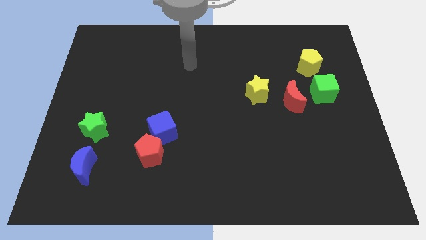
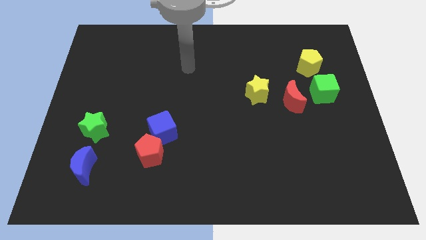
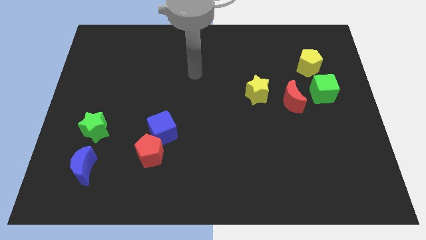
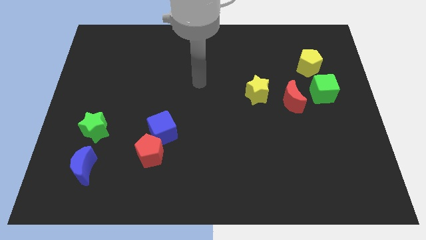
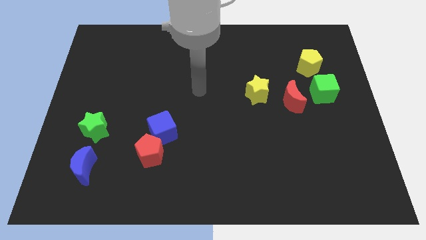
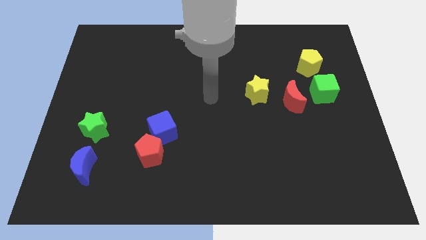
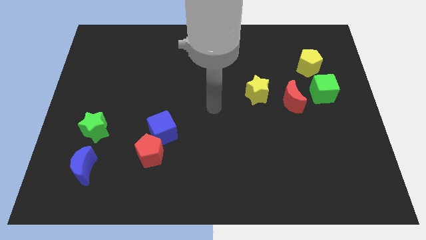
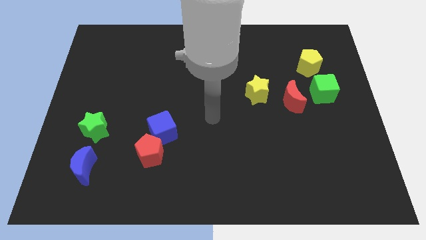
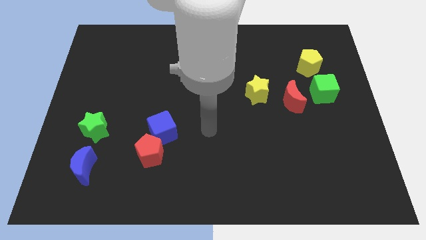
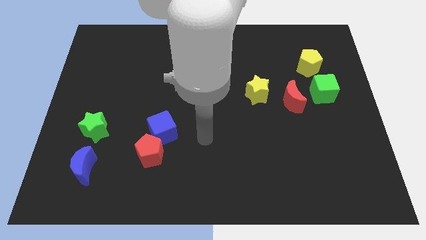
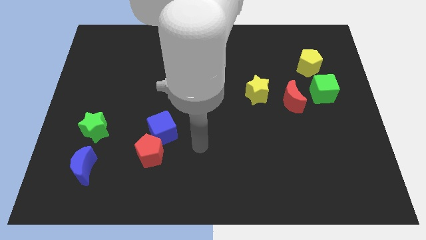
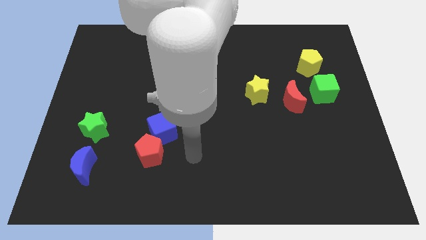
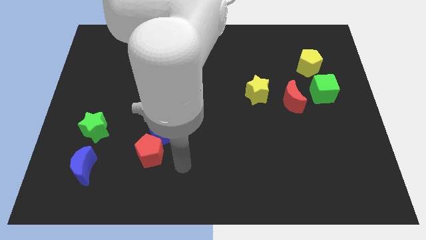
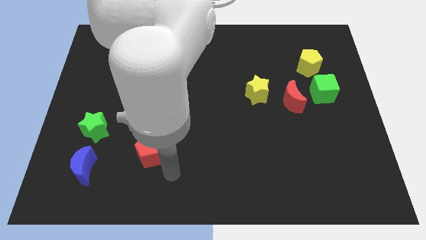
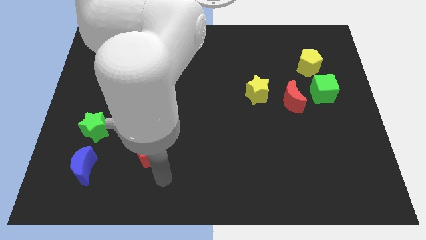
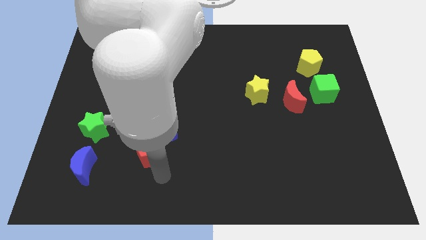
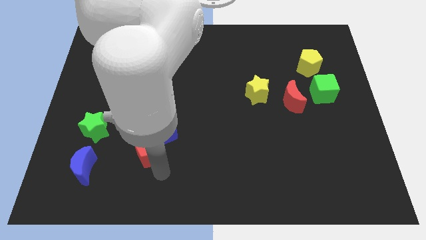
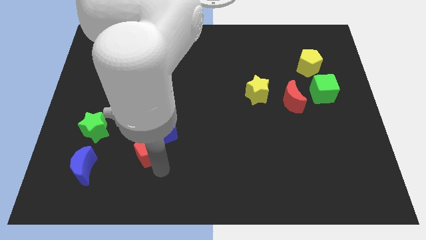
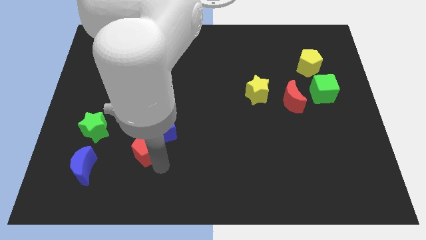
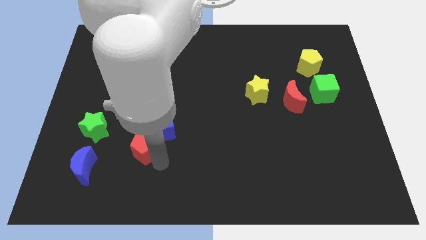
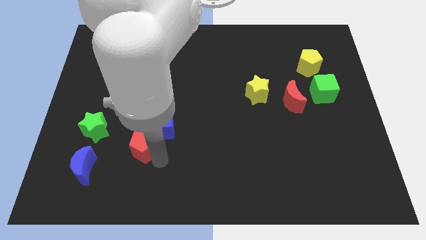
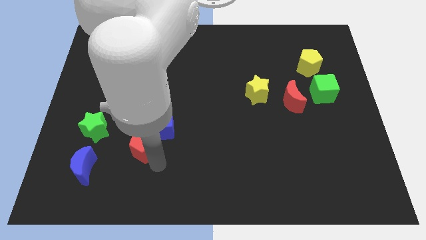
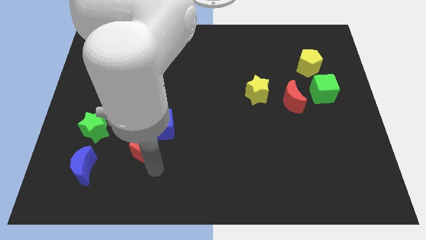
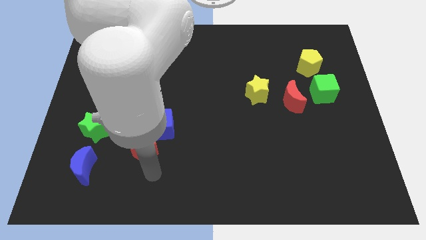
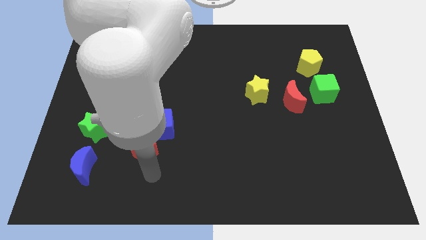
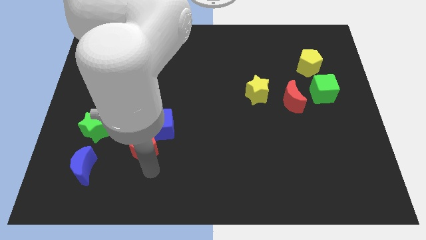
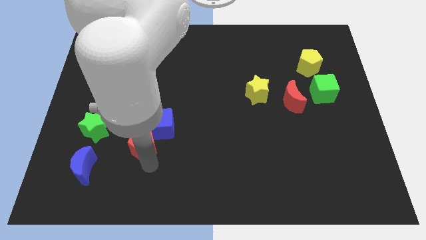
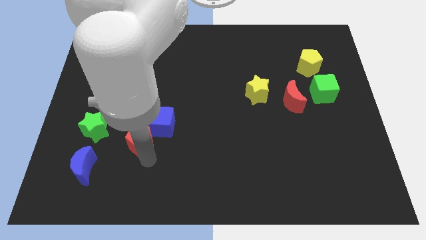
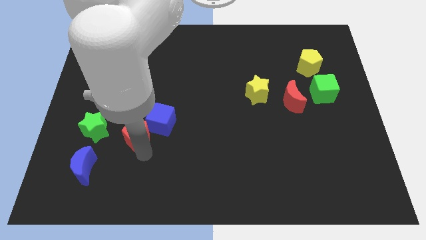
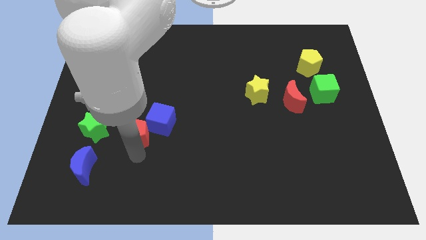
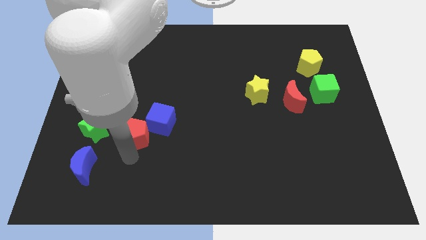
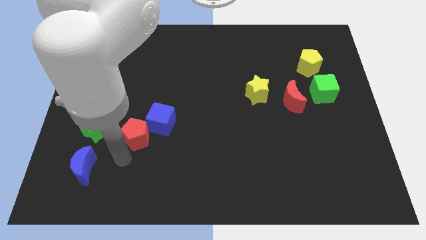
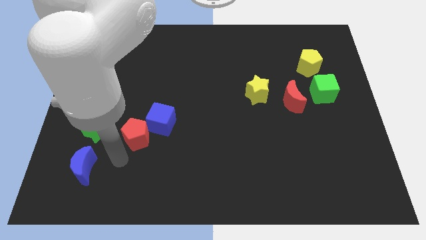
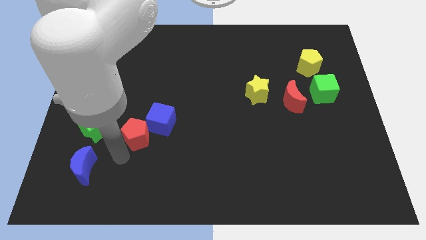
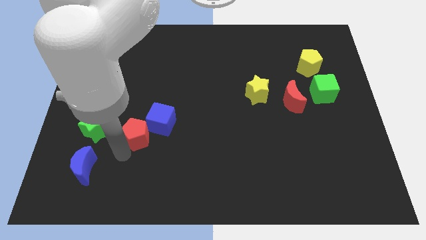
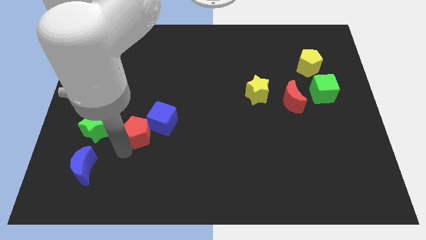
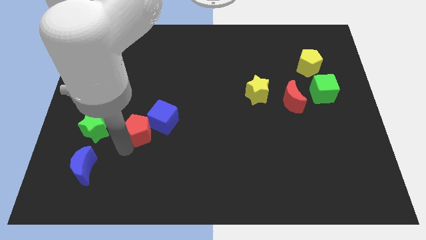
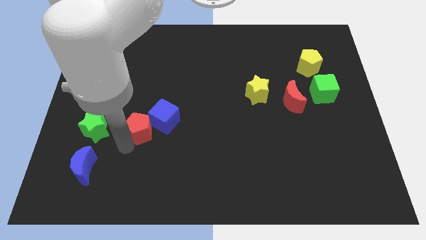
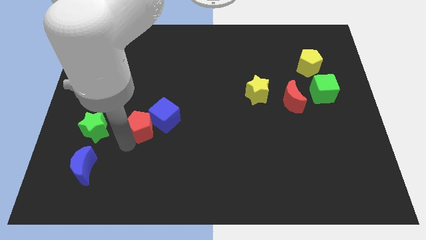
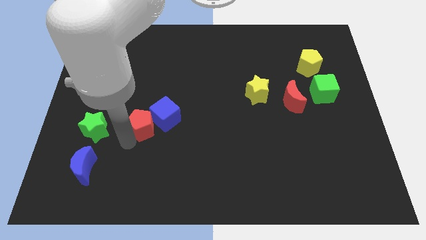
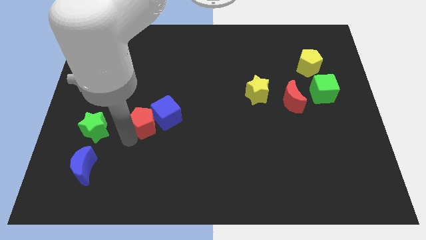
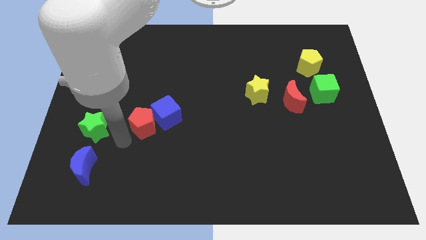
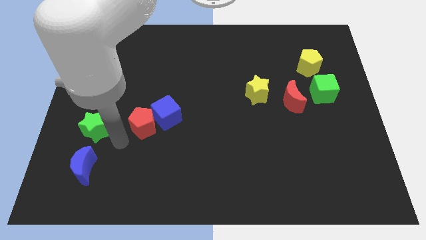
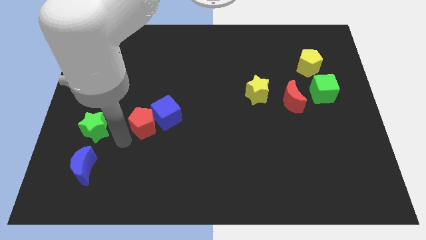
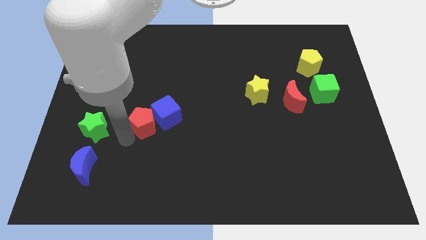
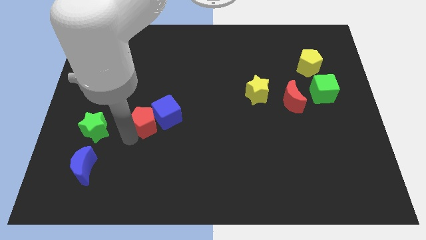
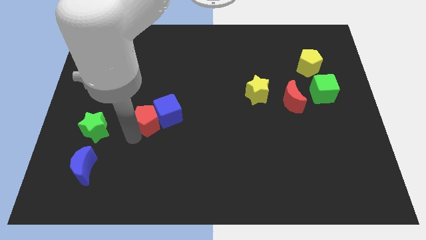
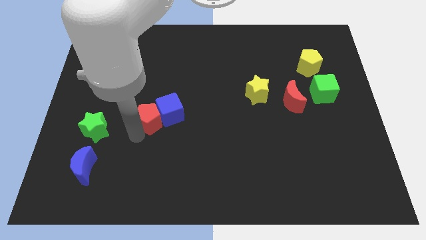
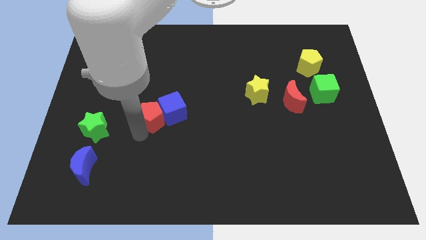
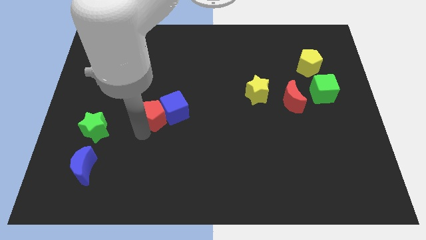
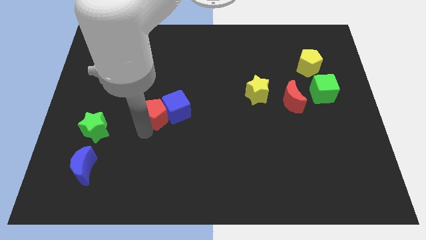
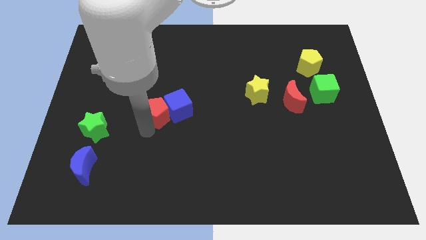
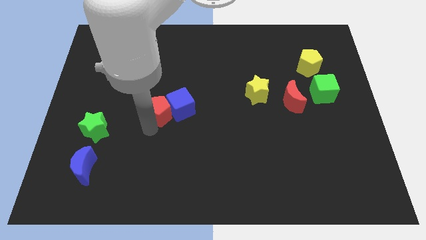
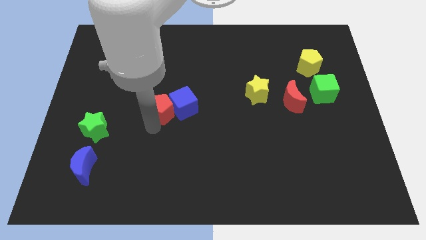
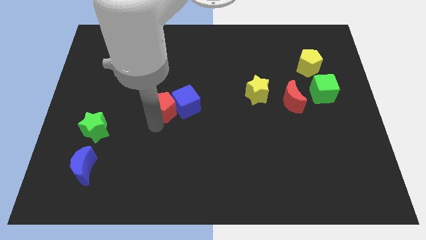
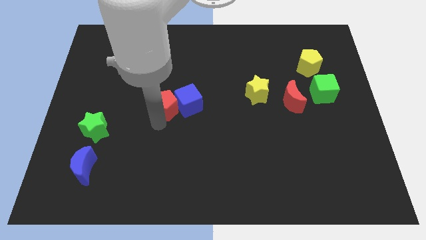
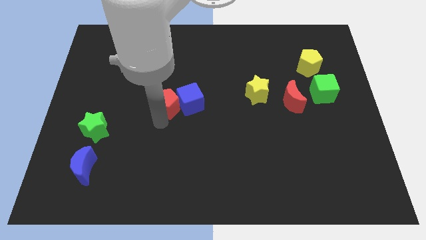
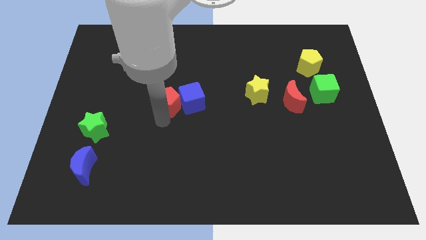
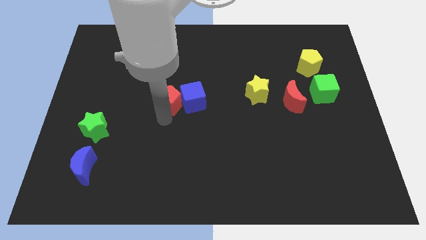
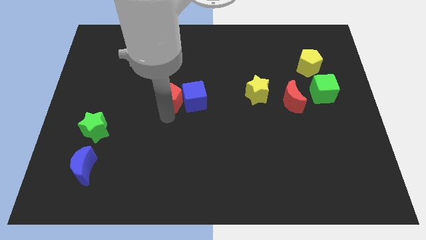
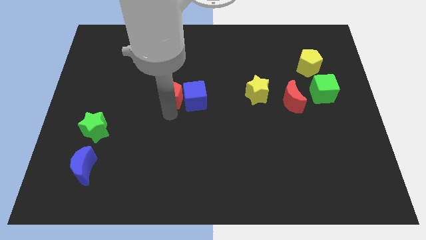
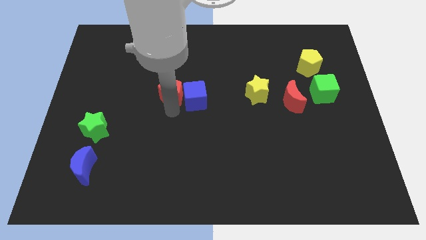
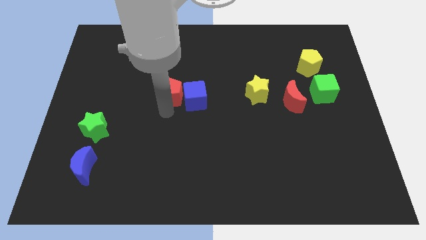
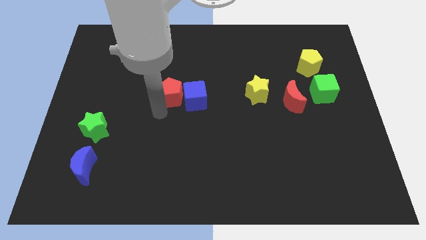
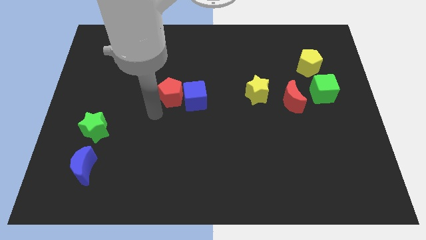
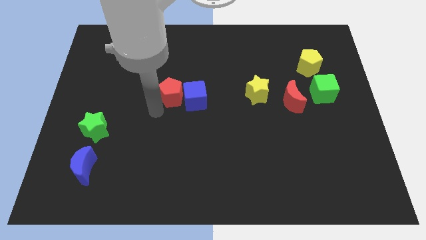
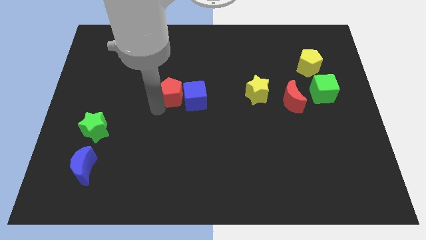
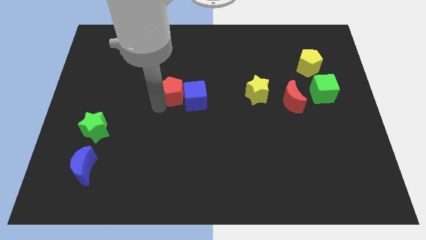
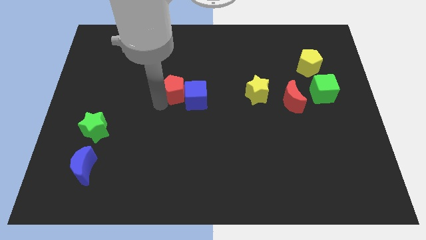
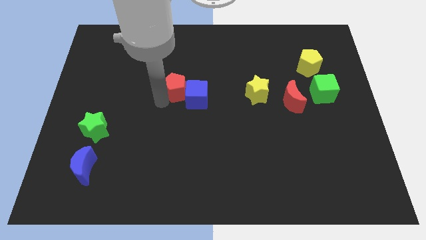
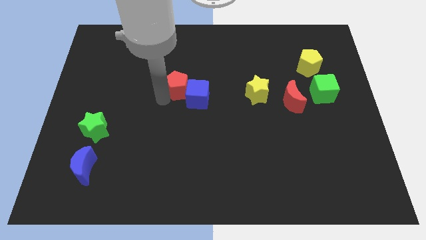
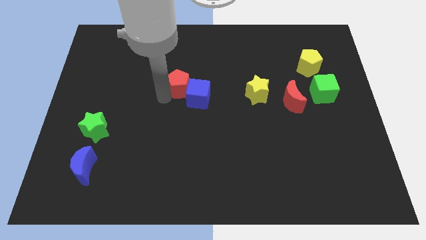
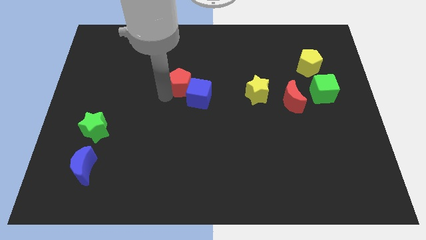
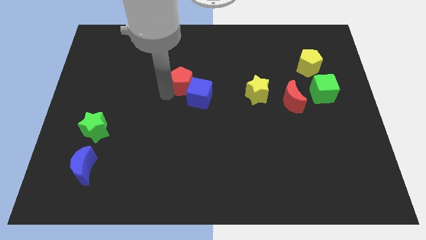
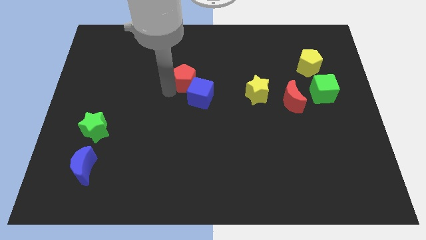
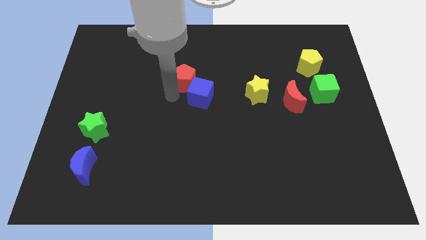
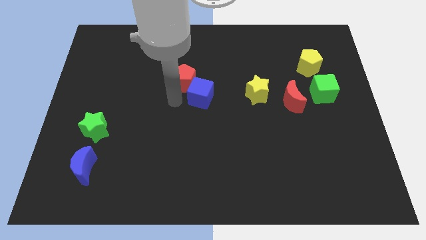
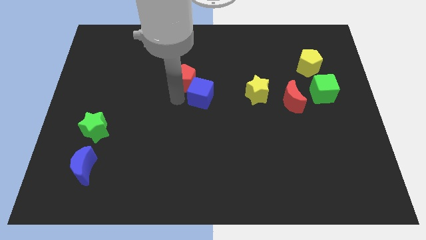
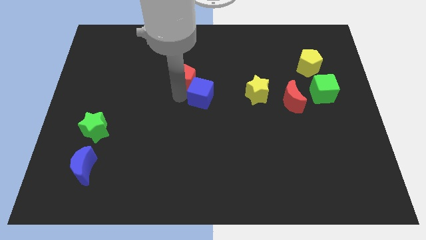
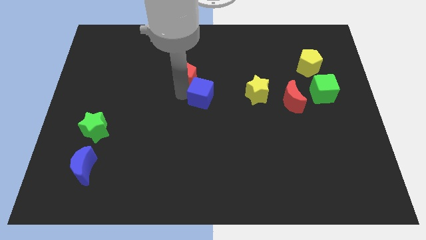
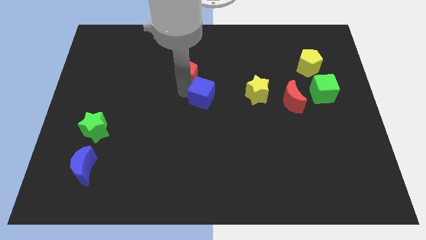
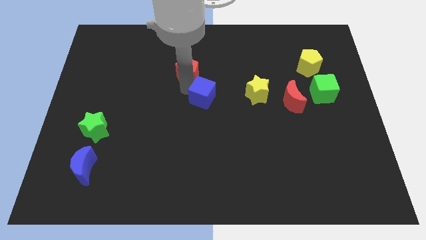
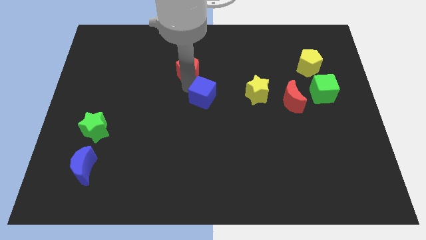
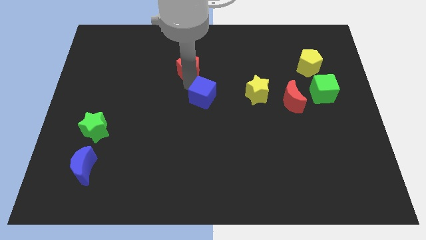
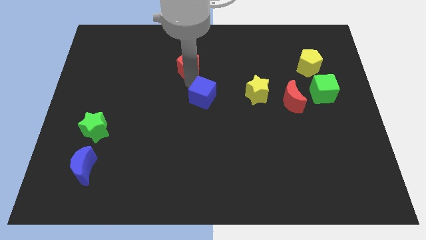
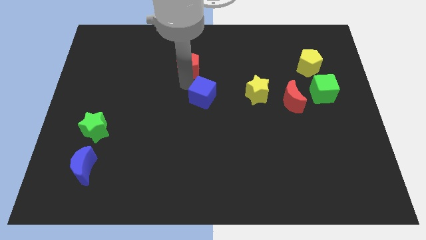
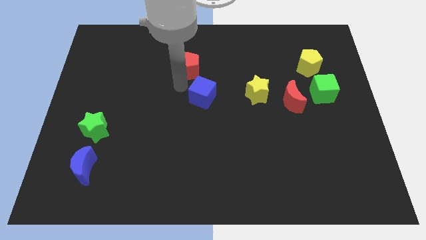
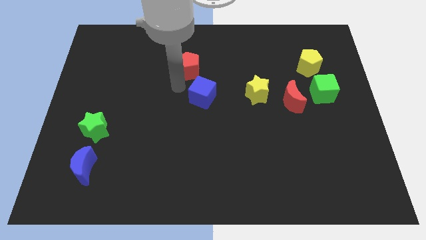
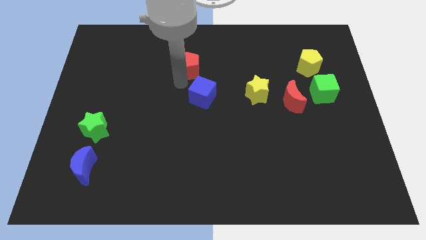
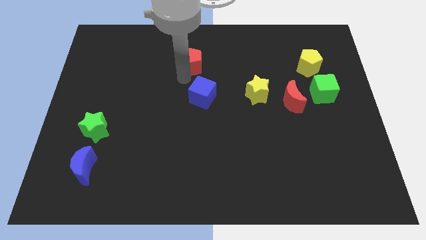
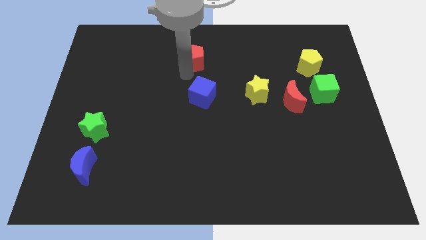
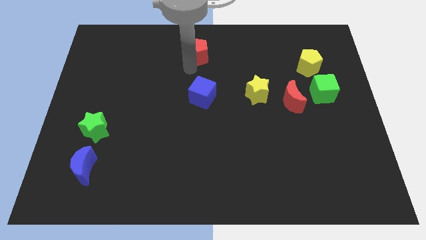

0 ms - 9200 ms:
slide the red pentagon to the top
